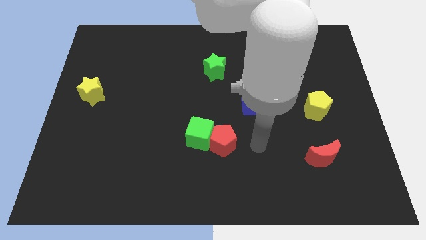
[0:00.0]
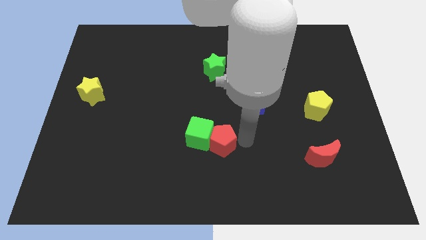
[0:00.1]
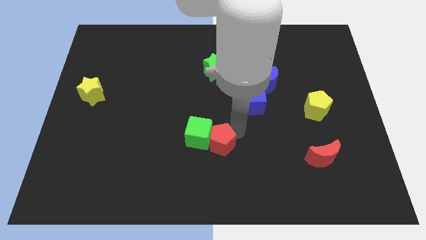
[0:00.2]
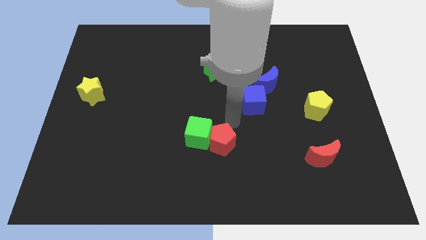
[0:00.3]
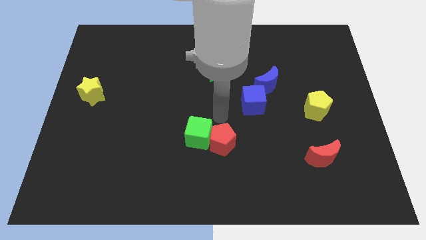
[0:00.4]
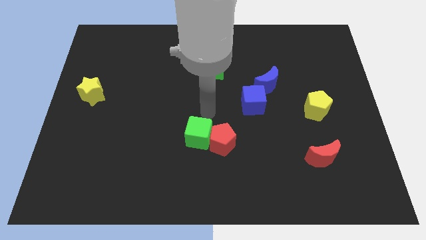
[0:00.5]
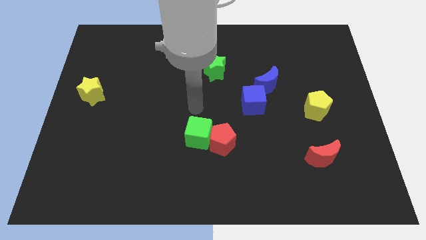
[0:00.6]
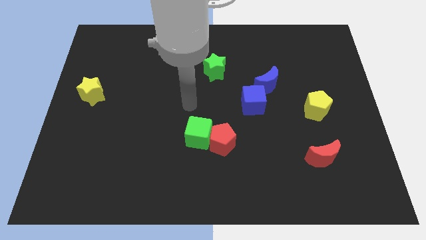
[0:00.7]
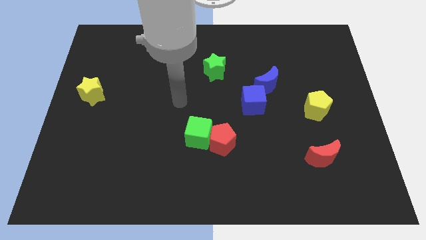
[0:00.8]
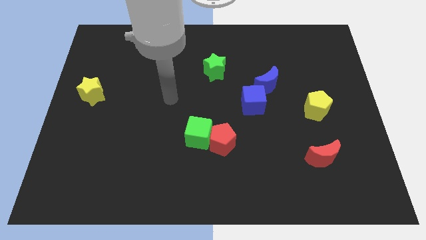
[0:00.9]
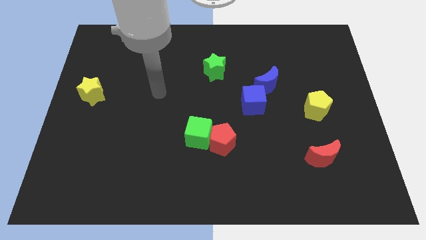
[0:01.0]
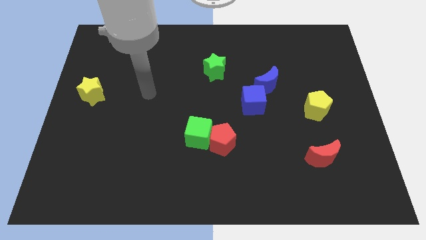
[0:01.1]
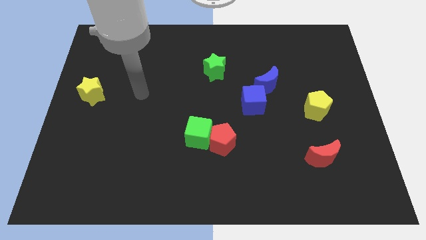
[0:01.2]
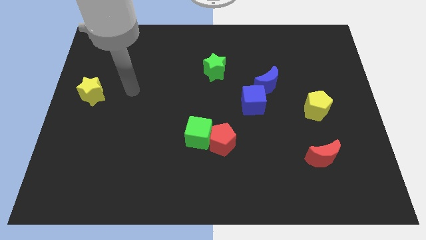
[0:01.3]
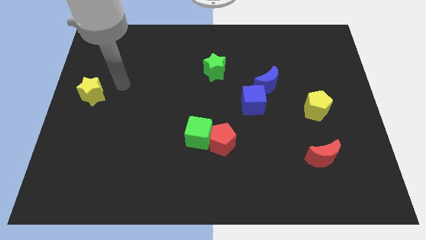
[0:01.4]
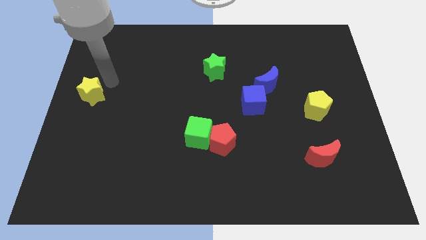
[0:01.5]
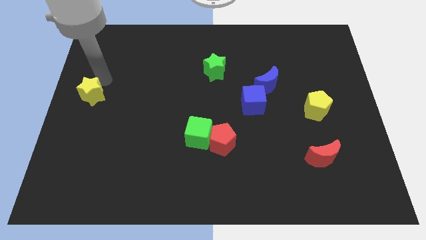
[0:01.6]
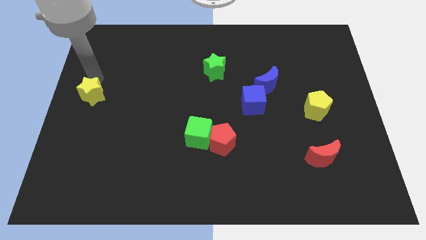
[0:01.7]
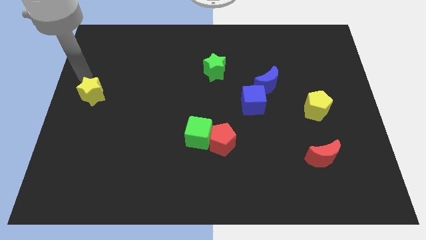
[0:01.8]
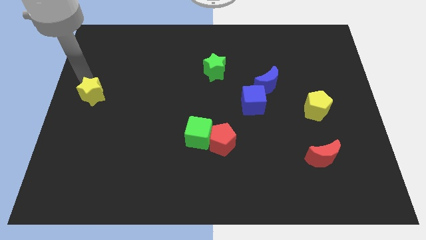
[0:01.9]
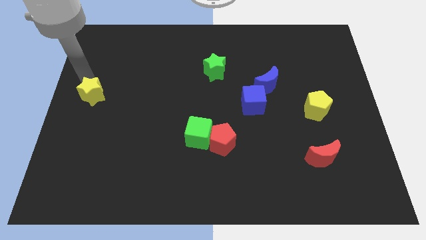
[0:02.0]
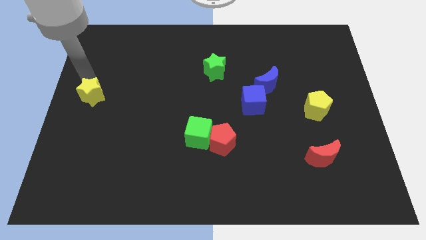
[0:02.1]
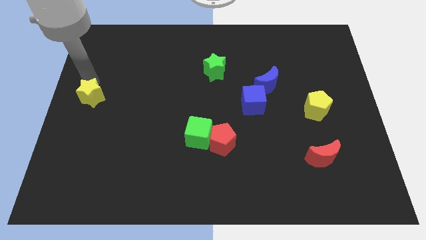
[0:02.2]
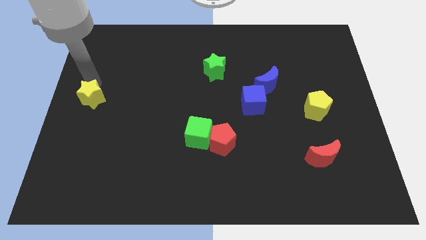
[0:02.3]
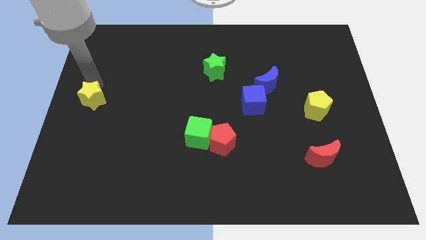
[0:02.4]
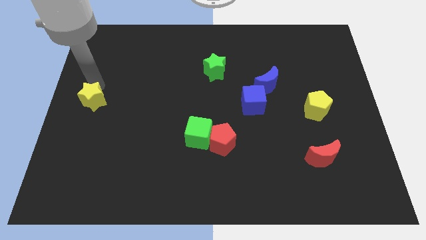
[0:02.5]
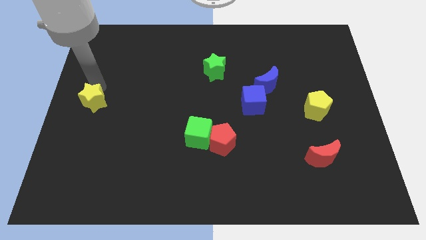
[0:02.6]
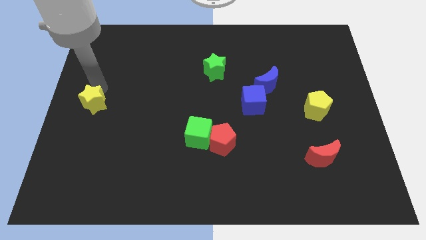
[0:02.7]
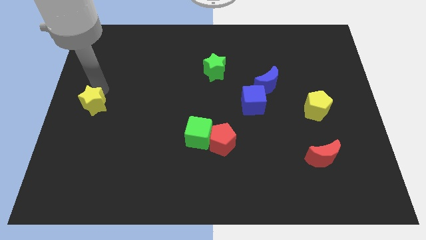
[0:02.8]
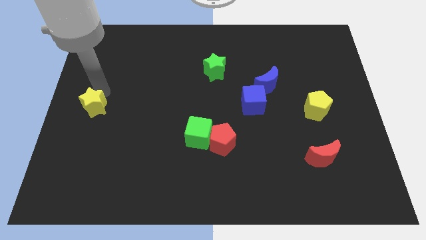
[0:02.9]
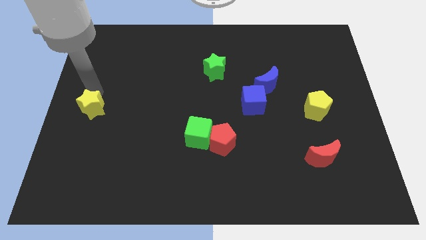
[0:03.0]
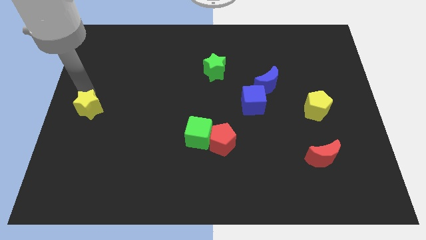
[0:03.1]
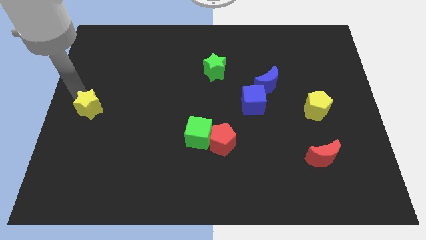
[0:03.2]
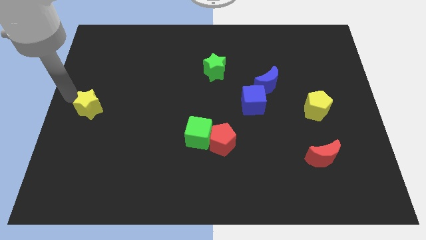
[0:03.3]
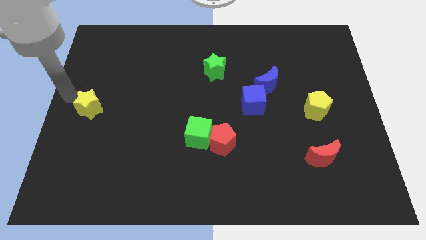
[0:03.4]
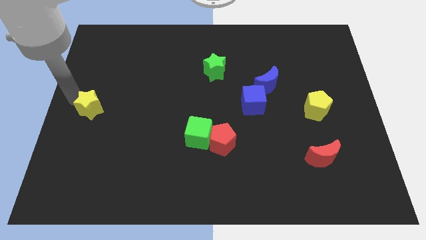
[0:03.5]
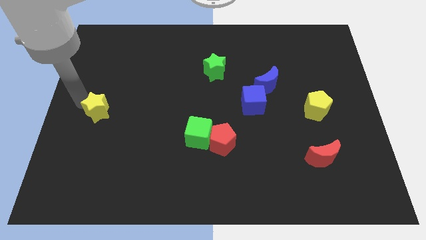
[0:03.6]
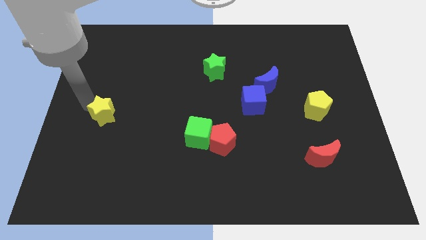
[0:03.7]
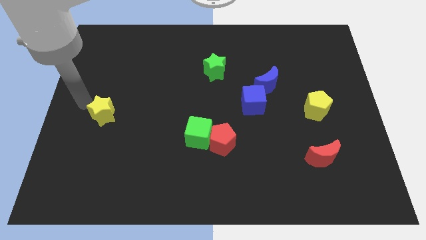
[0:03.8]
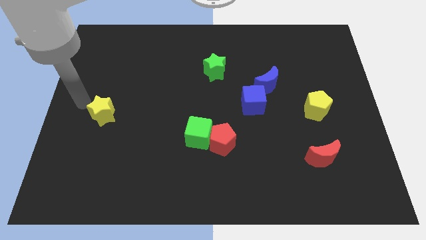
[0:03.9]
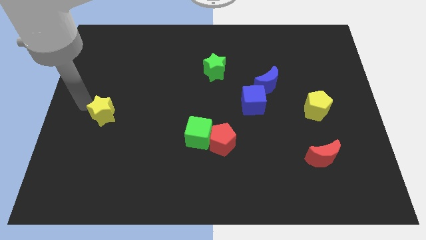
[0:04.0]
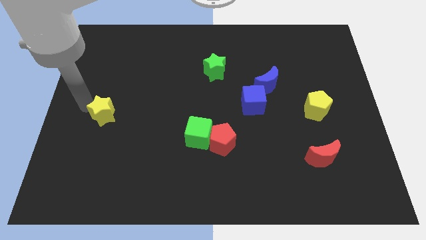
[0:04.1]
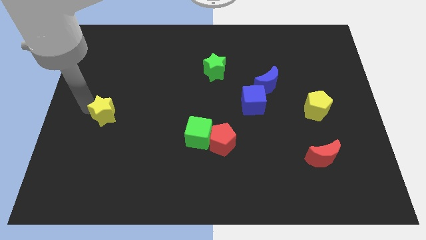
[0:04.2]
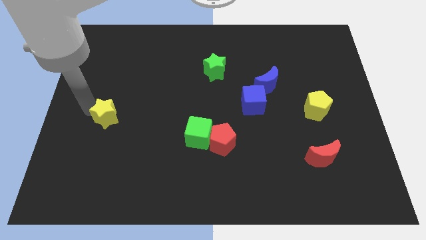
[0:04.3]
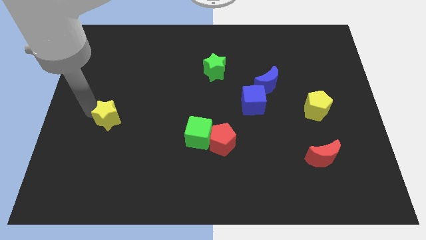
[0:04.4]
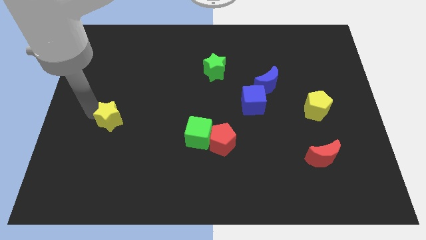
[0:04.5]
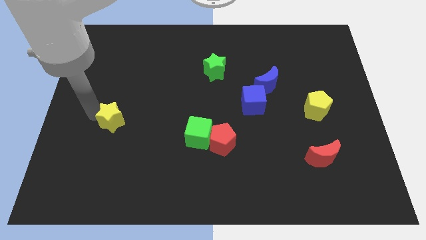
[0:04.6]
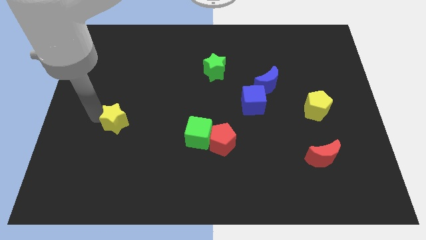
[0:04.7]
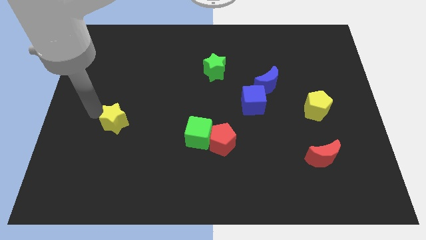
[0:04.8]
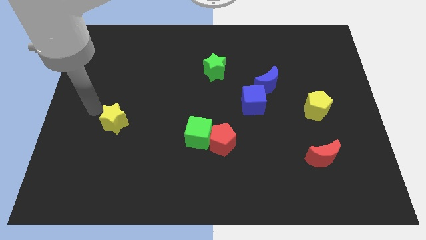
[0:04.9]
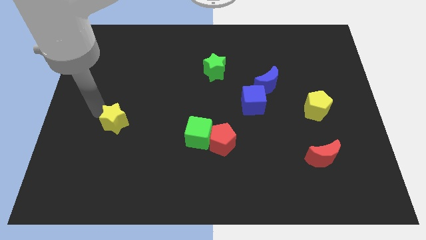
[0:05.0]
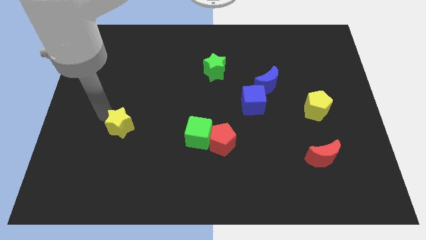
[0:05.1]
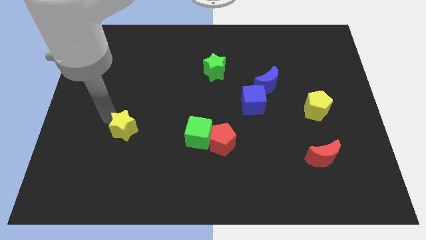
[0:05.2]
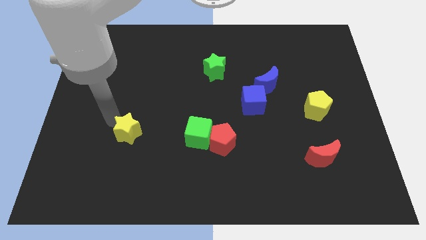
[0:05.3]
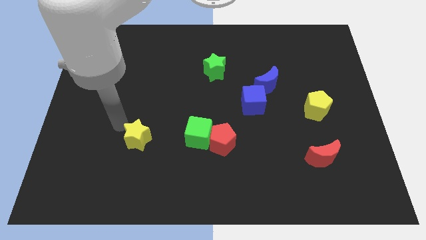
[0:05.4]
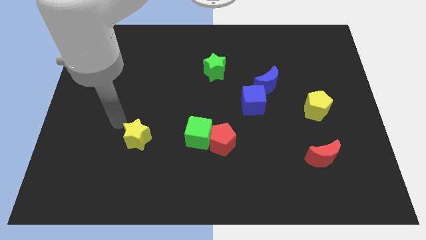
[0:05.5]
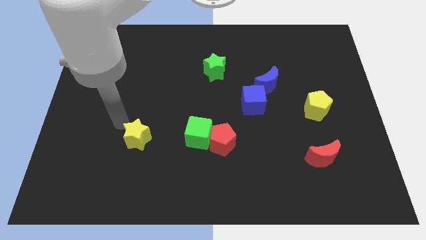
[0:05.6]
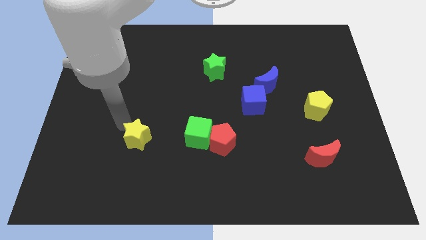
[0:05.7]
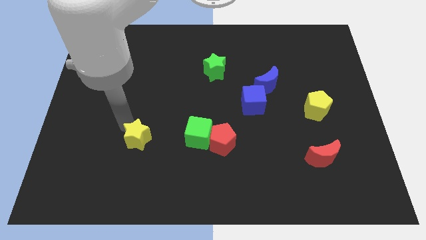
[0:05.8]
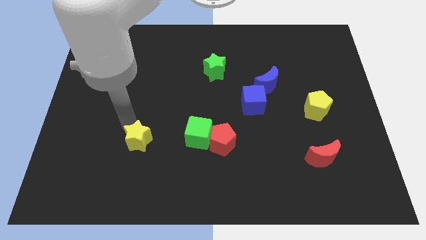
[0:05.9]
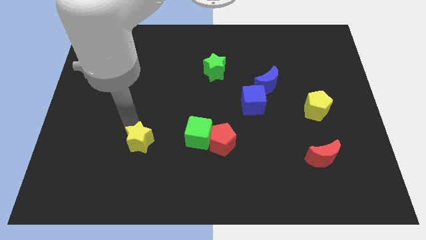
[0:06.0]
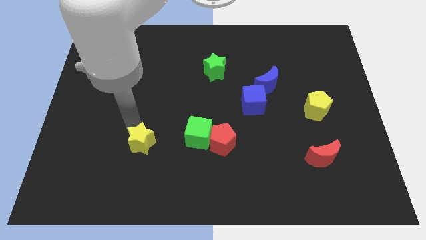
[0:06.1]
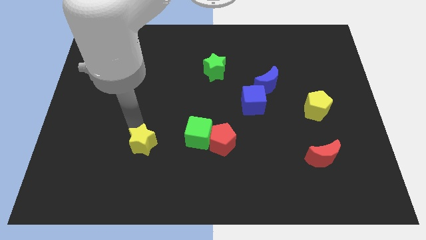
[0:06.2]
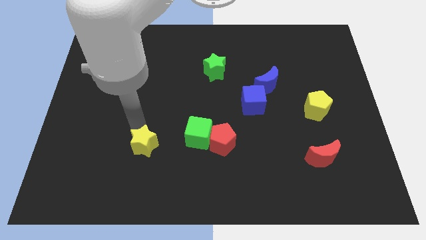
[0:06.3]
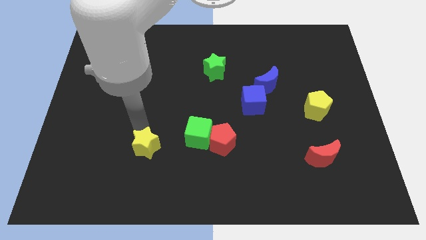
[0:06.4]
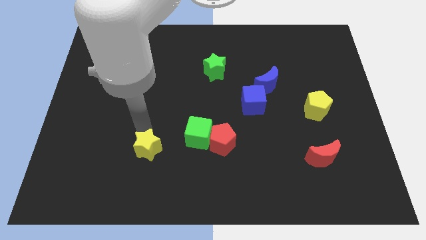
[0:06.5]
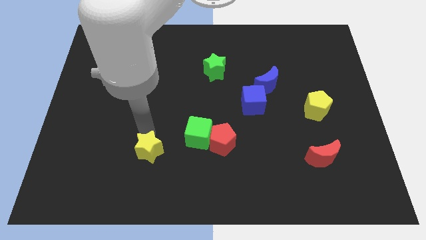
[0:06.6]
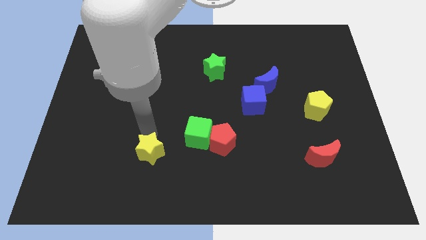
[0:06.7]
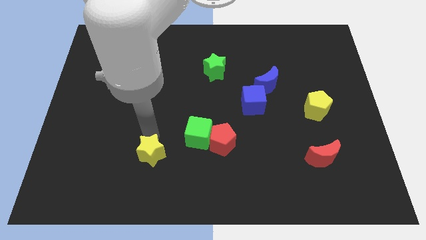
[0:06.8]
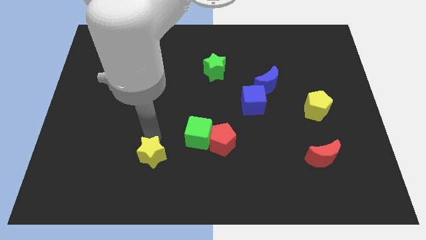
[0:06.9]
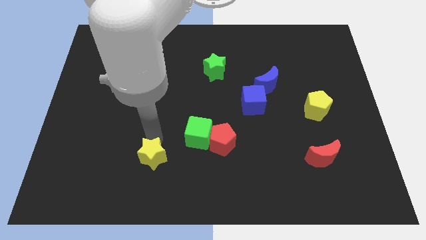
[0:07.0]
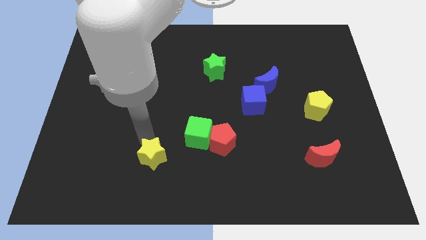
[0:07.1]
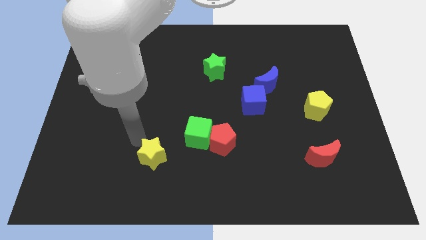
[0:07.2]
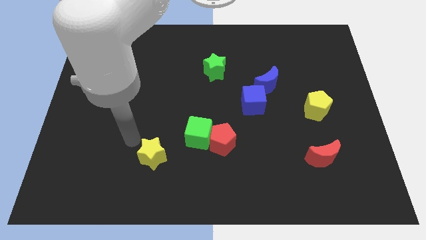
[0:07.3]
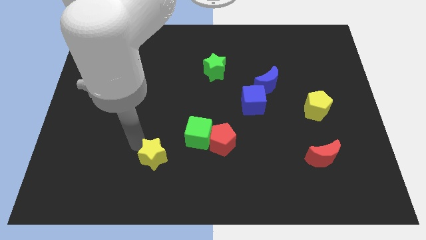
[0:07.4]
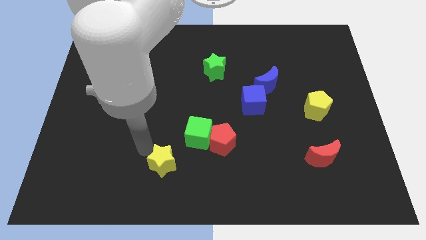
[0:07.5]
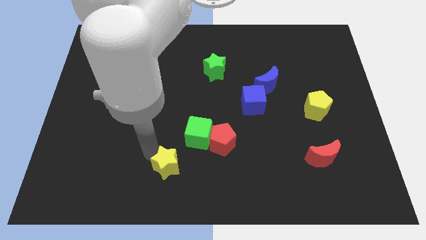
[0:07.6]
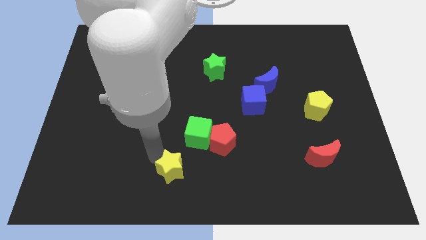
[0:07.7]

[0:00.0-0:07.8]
put the yellow star to the bottom side
